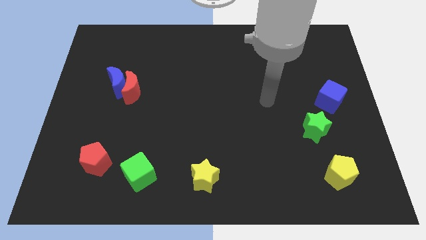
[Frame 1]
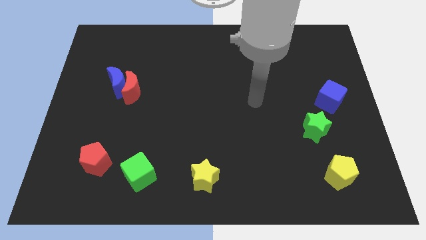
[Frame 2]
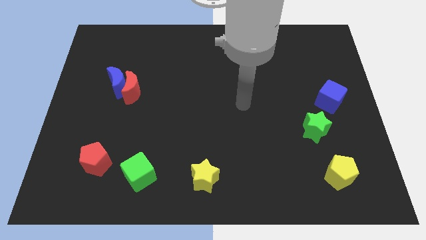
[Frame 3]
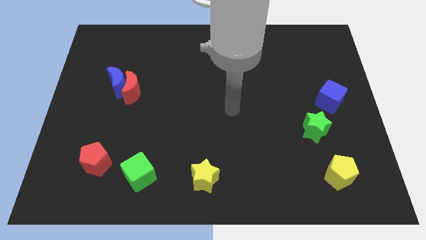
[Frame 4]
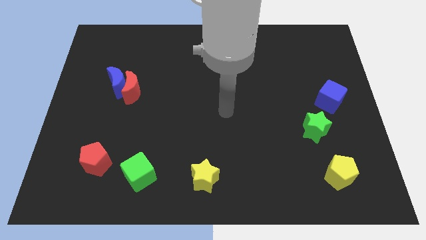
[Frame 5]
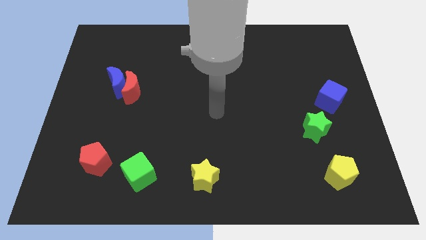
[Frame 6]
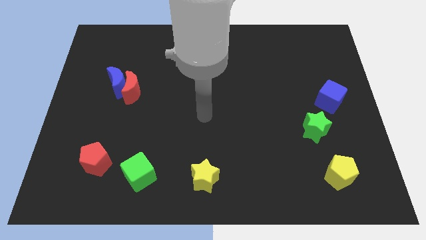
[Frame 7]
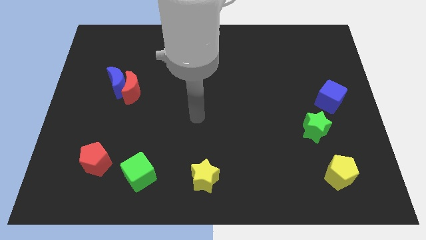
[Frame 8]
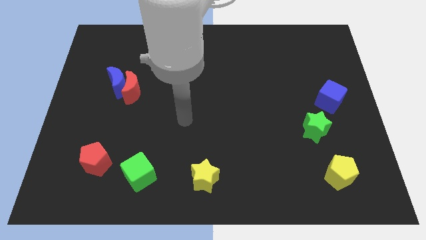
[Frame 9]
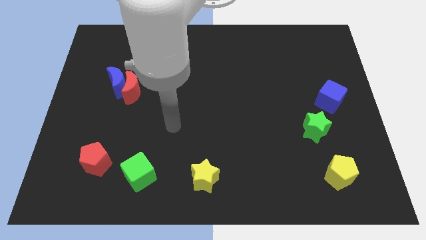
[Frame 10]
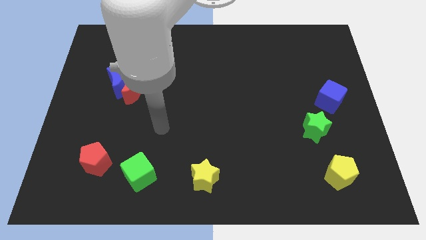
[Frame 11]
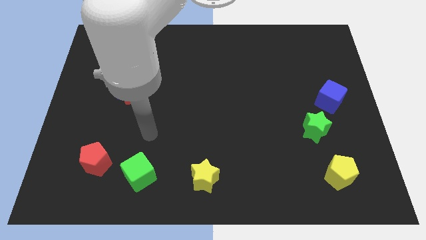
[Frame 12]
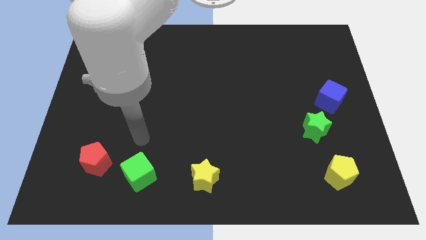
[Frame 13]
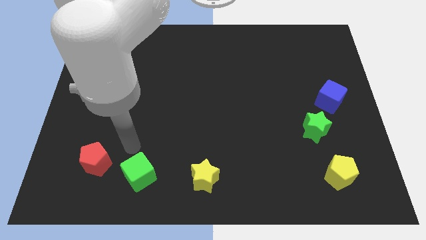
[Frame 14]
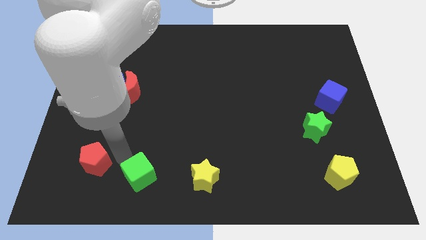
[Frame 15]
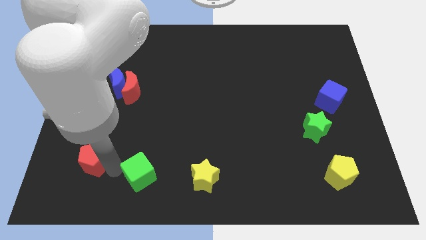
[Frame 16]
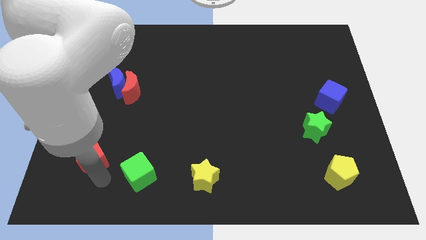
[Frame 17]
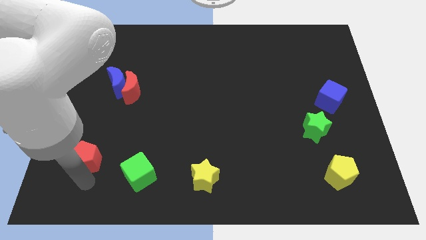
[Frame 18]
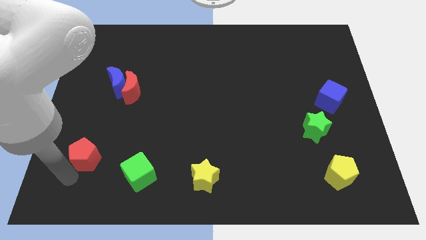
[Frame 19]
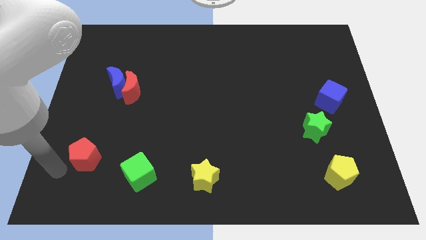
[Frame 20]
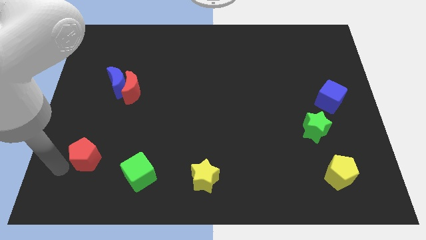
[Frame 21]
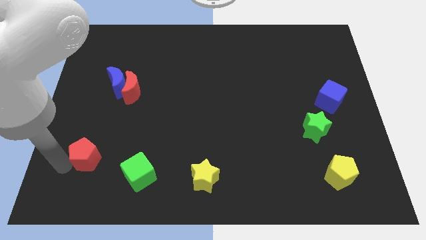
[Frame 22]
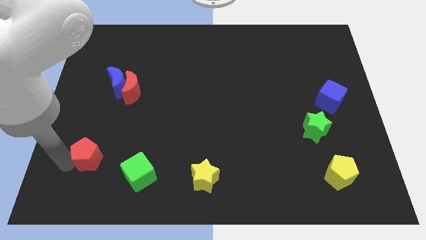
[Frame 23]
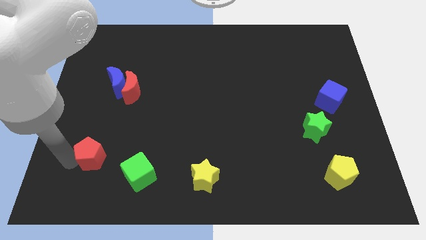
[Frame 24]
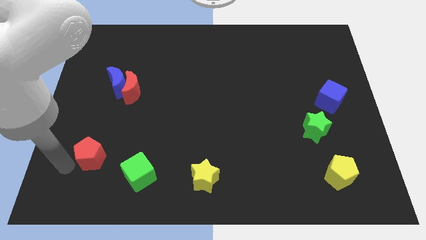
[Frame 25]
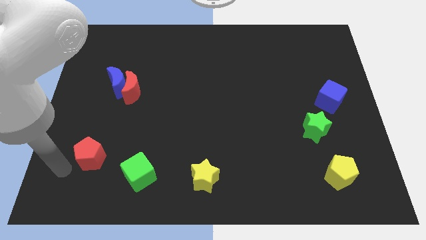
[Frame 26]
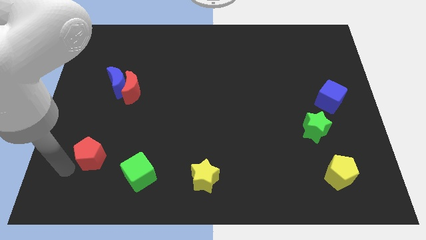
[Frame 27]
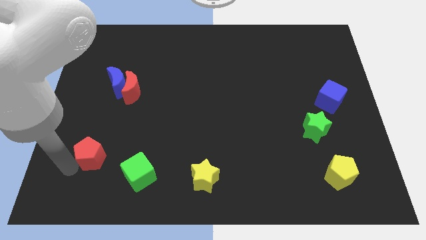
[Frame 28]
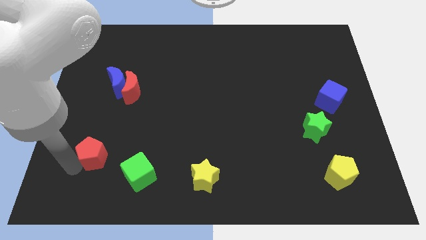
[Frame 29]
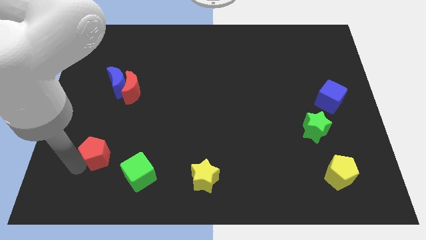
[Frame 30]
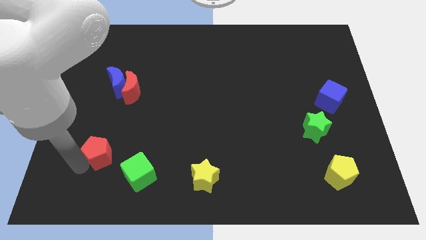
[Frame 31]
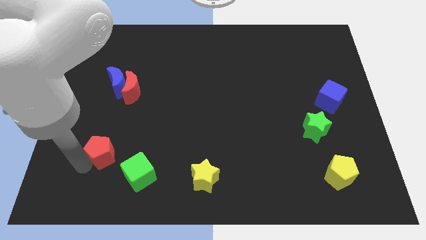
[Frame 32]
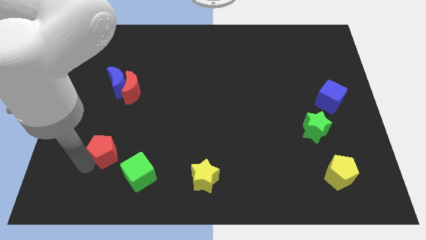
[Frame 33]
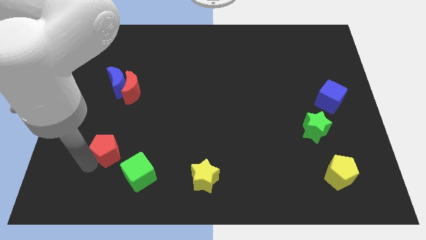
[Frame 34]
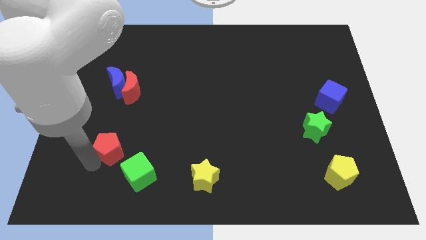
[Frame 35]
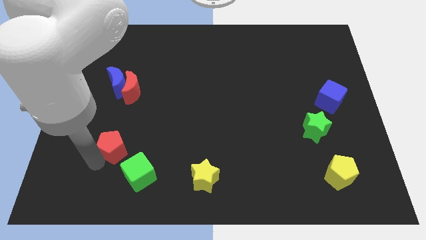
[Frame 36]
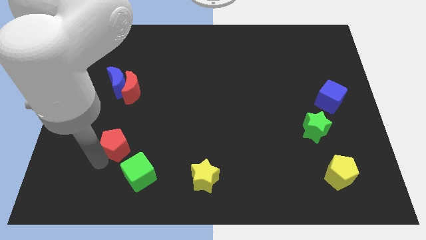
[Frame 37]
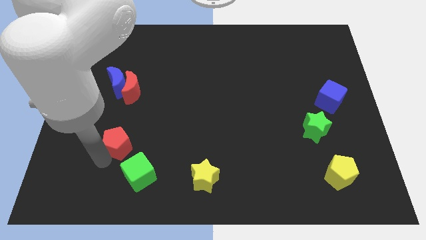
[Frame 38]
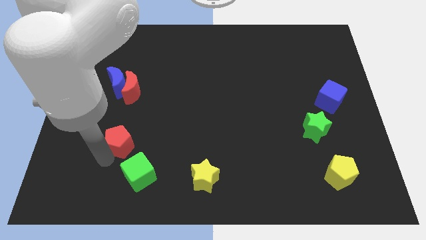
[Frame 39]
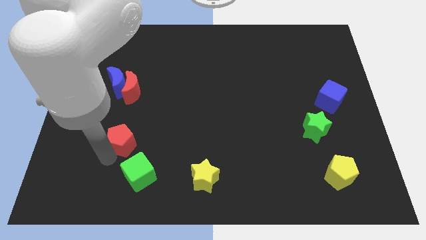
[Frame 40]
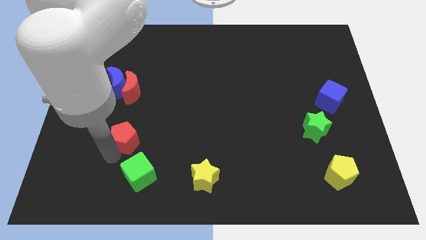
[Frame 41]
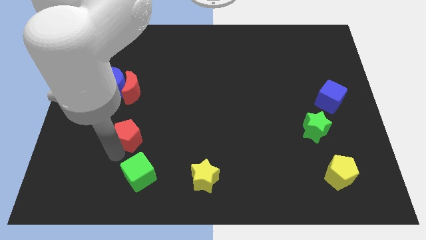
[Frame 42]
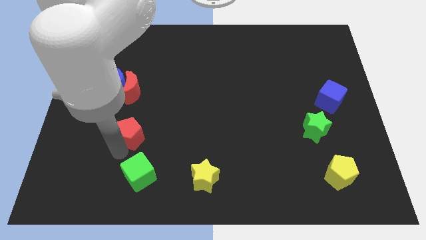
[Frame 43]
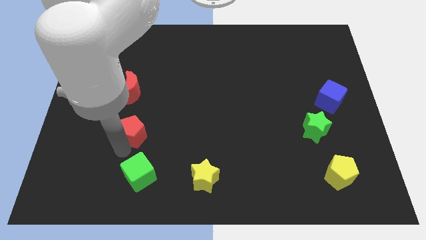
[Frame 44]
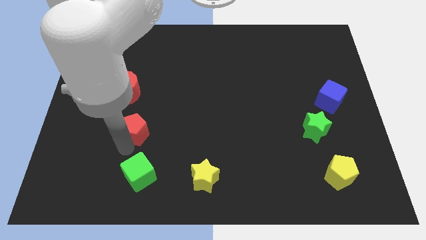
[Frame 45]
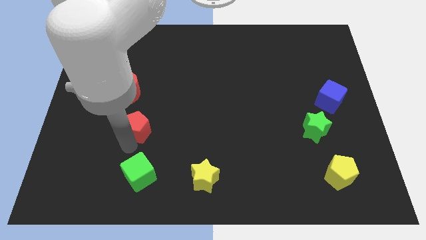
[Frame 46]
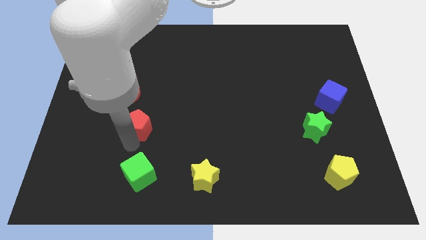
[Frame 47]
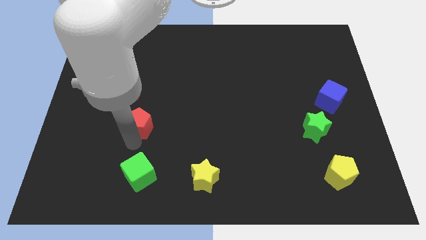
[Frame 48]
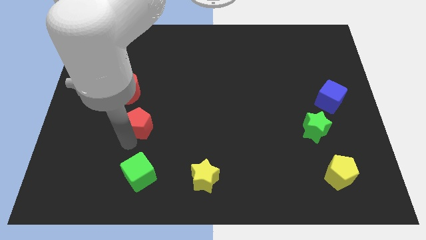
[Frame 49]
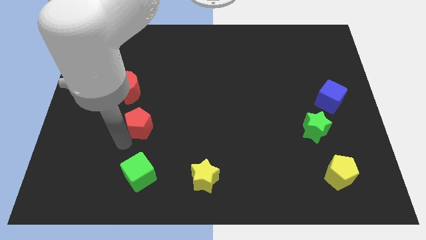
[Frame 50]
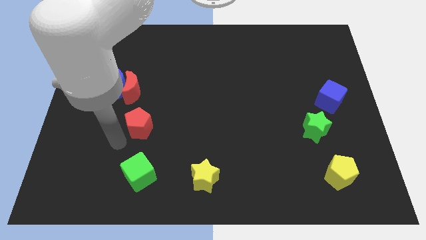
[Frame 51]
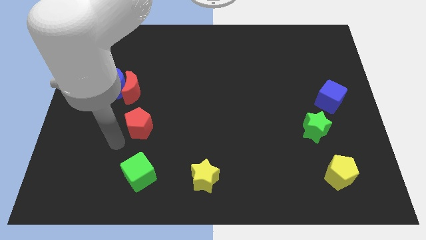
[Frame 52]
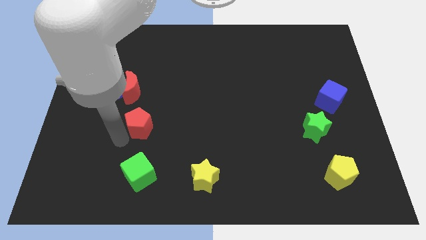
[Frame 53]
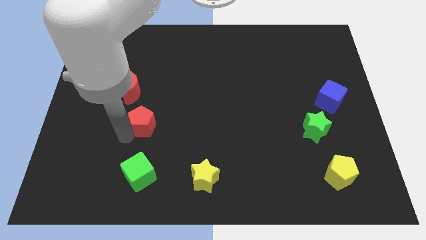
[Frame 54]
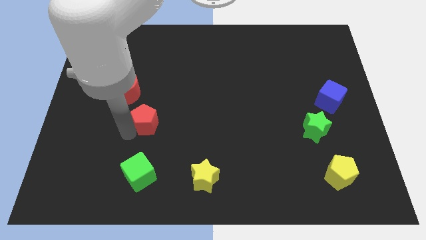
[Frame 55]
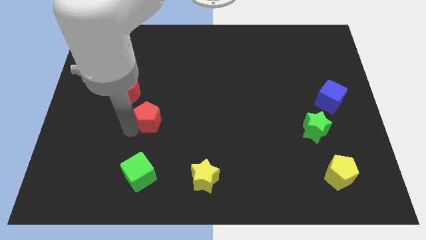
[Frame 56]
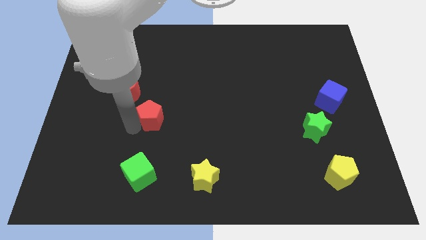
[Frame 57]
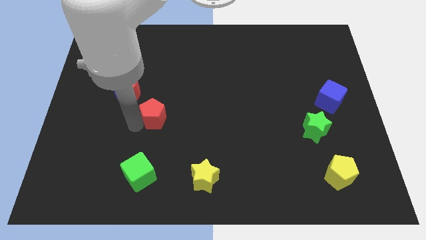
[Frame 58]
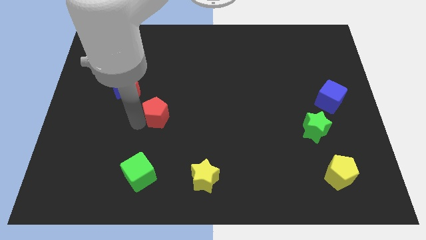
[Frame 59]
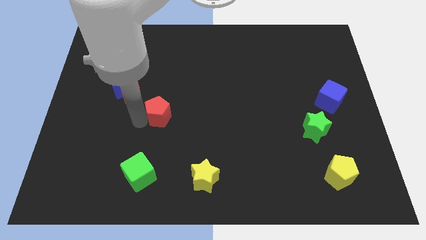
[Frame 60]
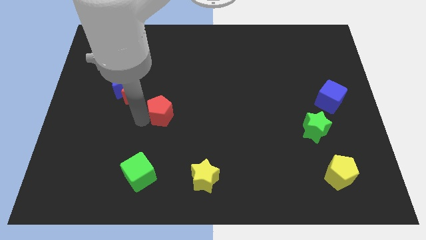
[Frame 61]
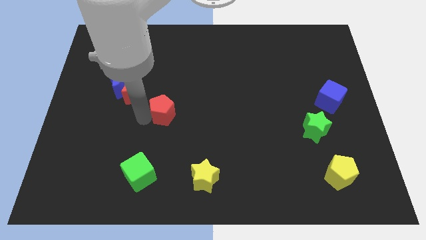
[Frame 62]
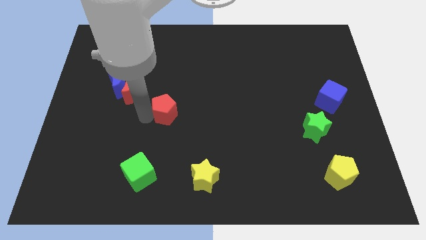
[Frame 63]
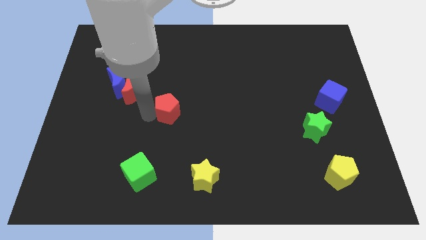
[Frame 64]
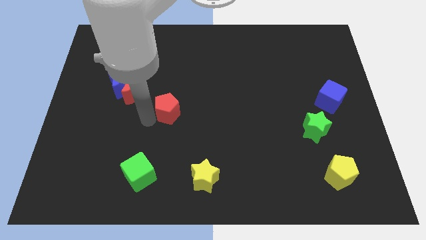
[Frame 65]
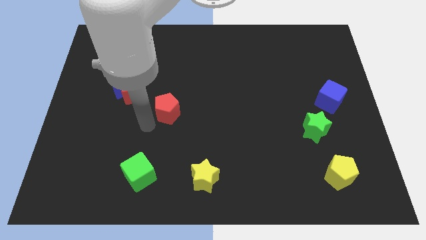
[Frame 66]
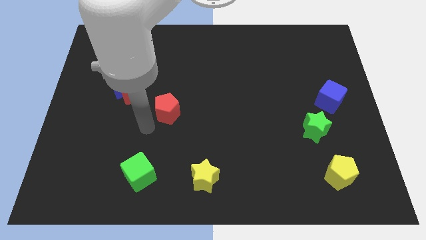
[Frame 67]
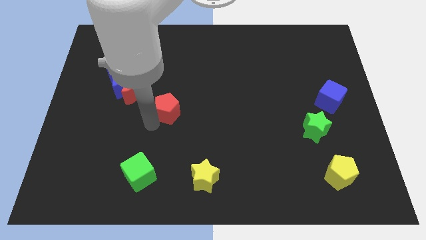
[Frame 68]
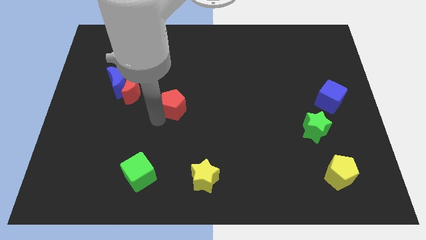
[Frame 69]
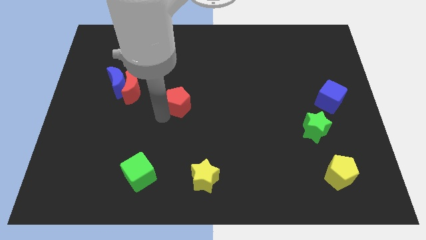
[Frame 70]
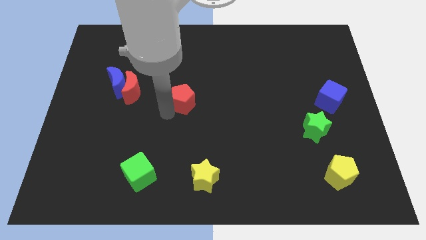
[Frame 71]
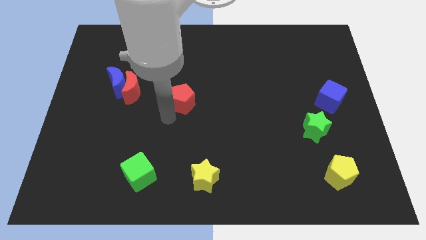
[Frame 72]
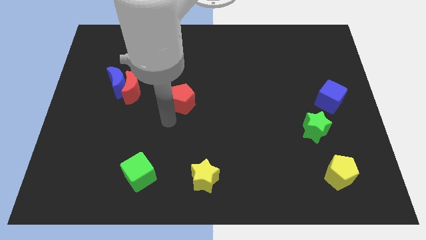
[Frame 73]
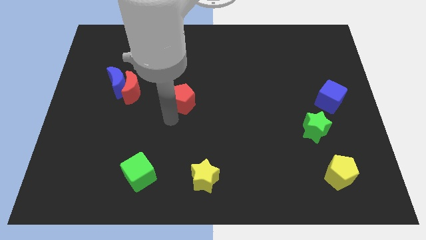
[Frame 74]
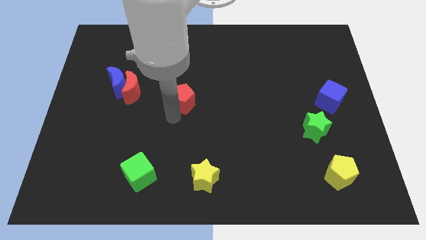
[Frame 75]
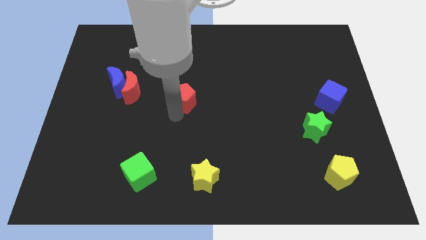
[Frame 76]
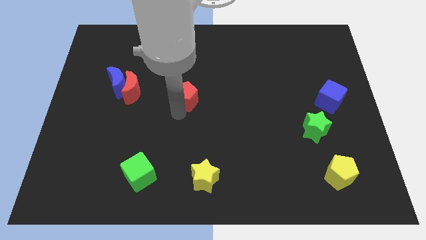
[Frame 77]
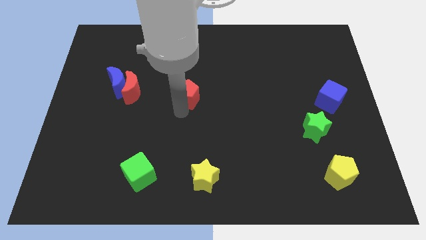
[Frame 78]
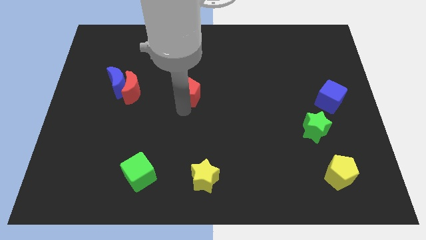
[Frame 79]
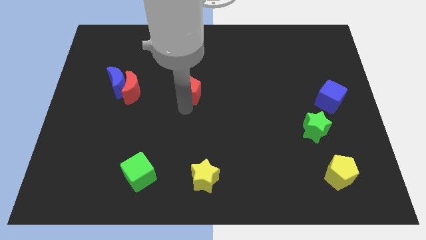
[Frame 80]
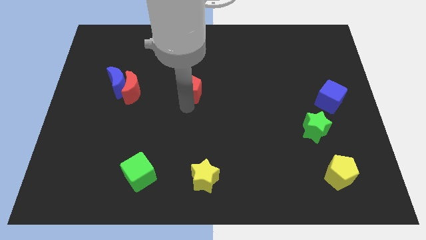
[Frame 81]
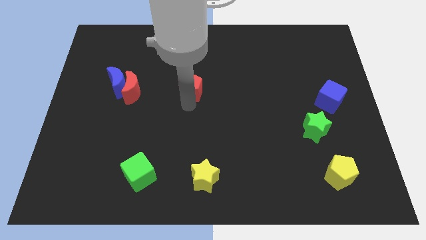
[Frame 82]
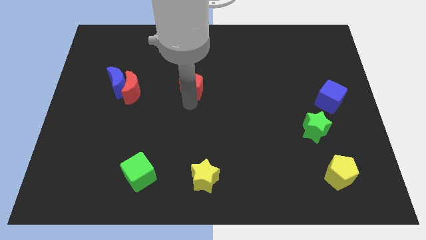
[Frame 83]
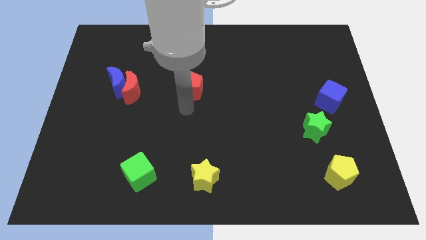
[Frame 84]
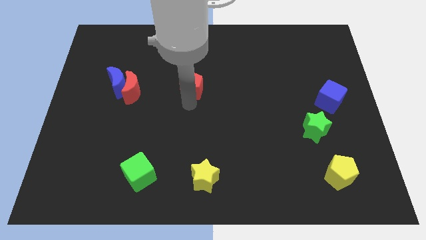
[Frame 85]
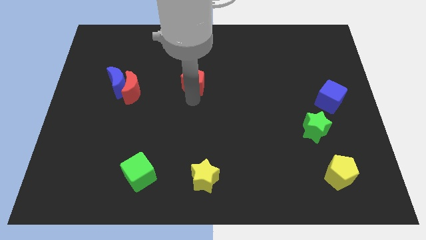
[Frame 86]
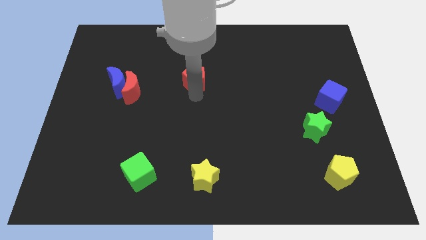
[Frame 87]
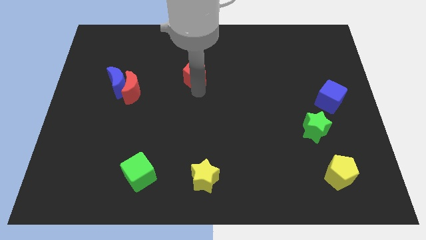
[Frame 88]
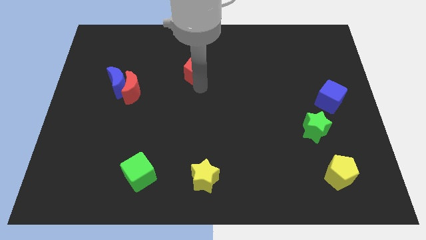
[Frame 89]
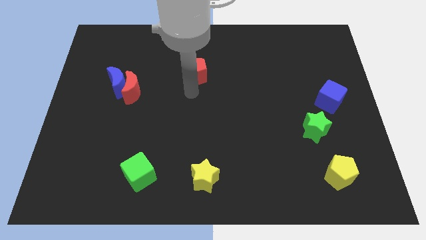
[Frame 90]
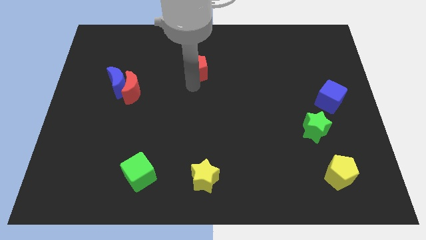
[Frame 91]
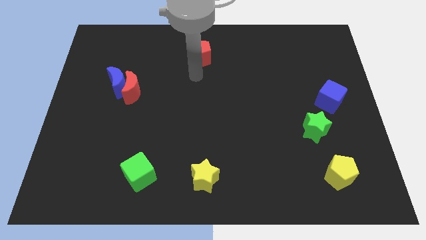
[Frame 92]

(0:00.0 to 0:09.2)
push the red pentagon to the top
